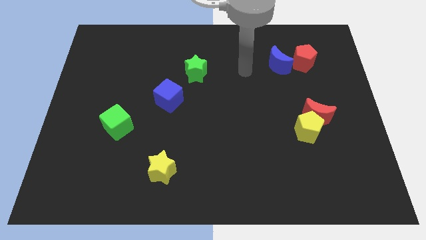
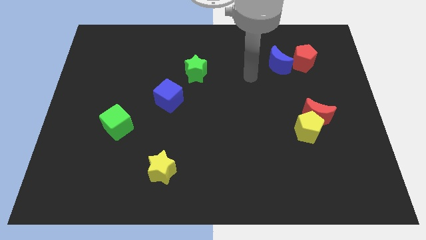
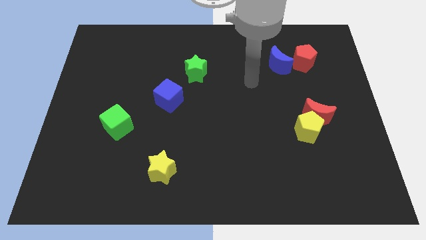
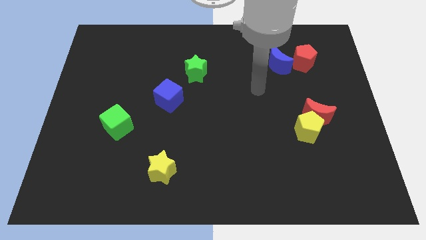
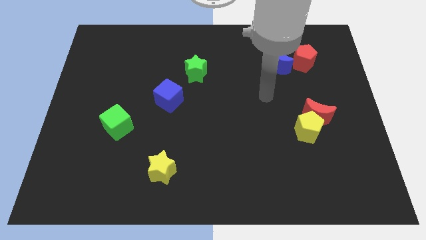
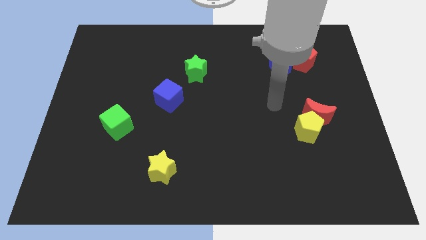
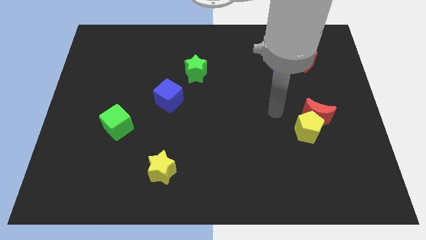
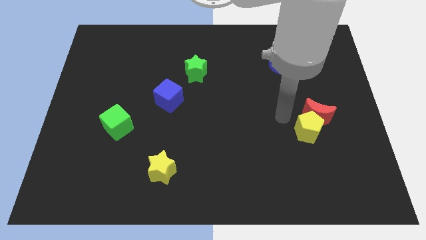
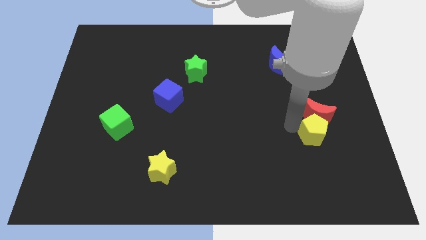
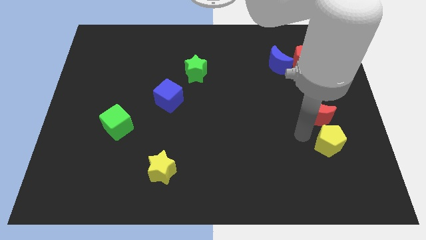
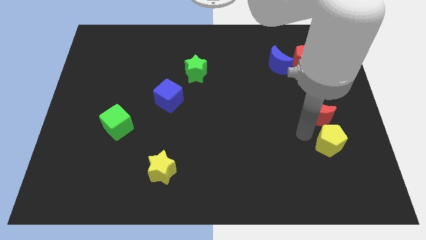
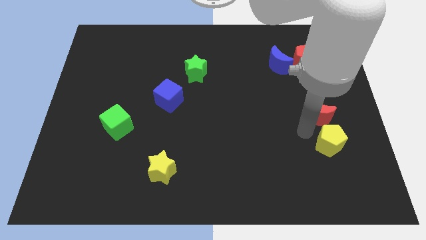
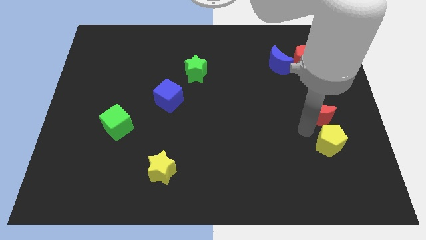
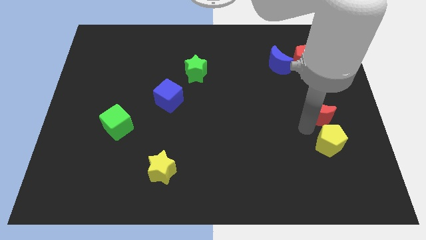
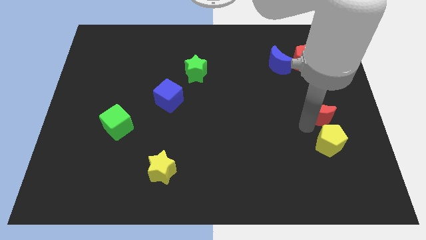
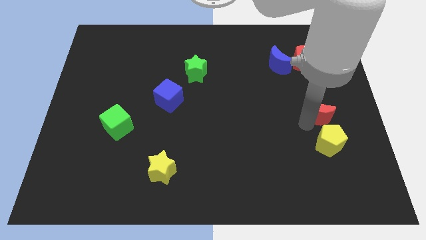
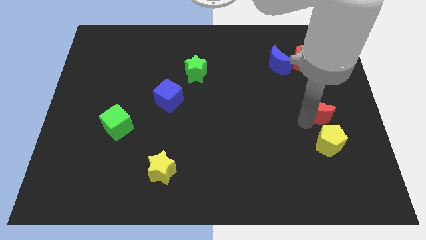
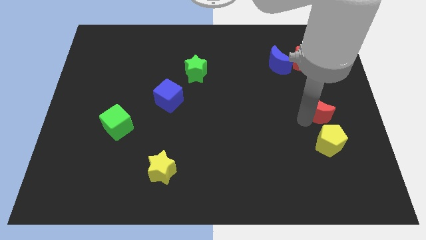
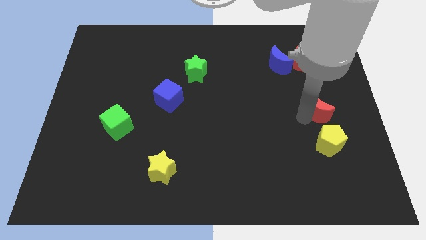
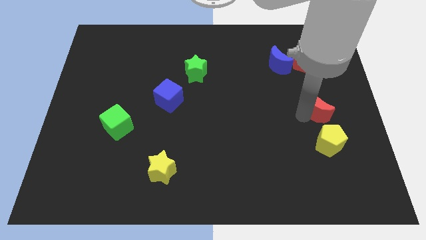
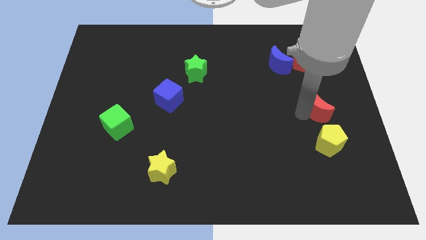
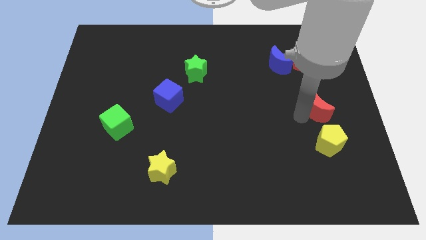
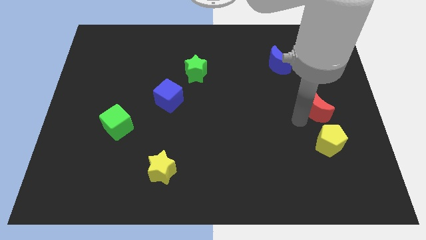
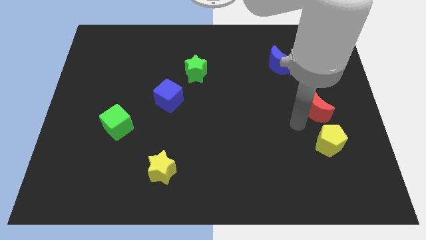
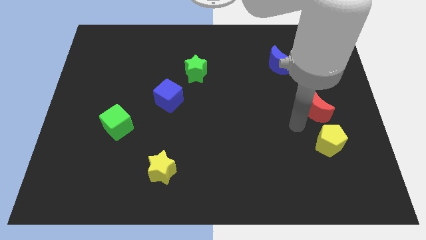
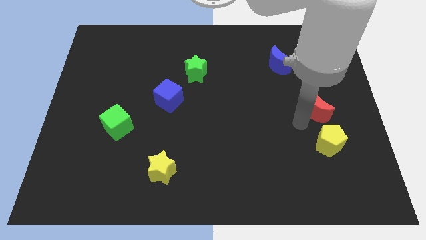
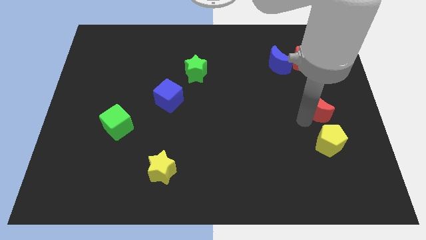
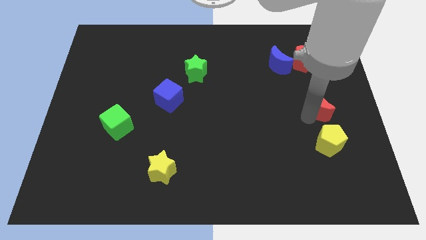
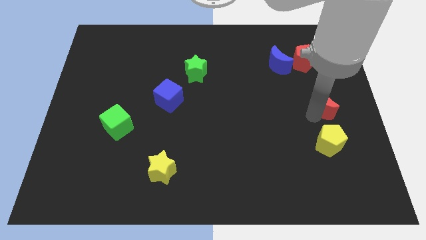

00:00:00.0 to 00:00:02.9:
pull the red moon apart from the yellow pentagon

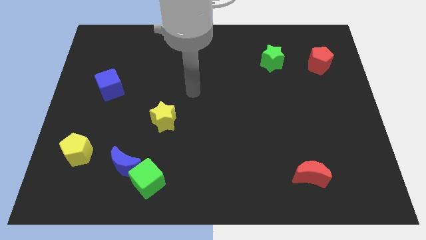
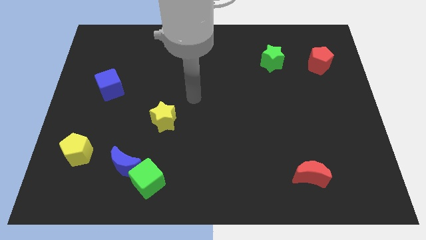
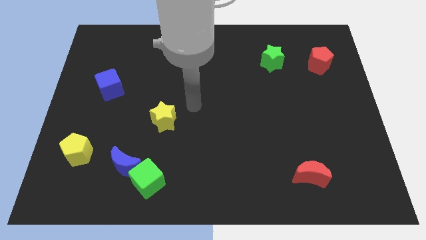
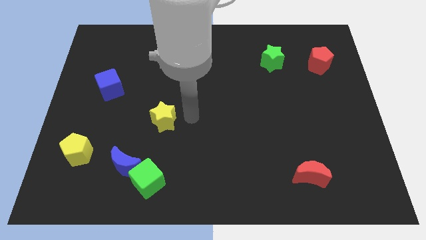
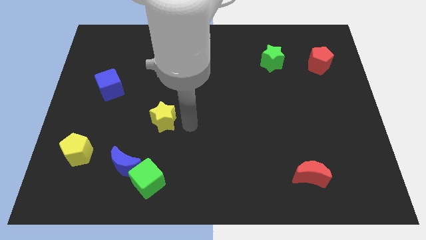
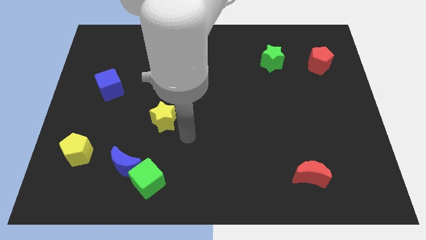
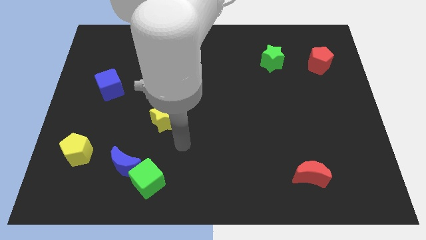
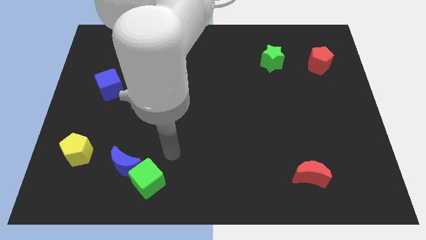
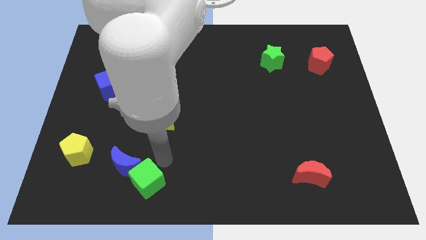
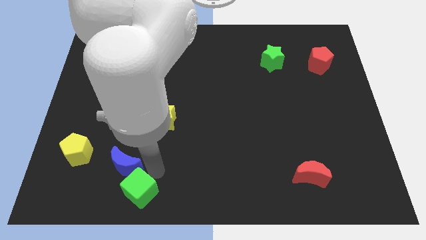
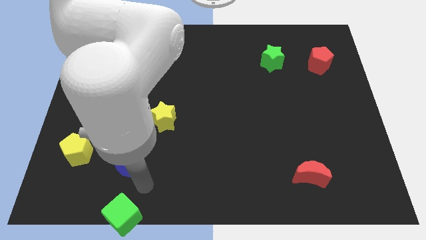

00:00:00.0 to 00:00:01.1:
pull the blue moon apart from the green cube

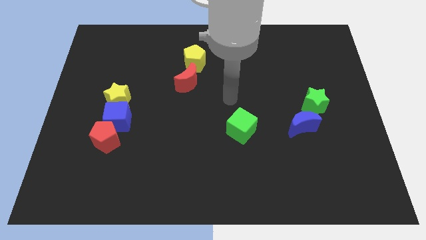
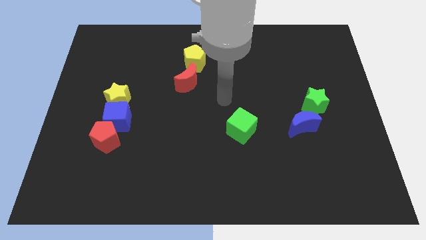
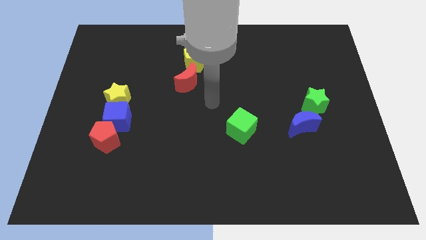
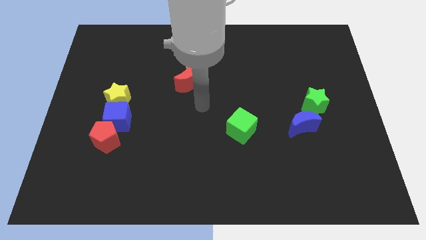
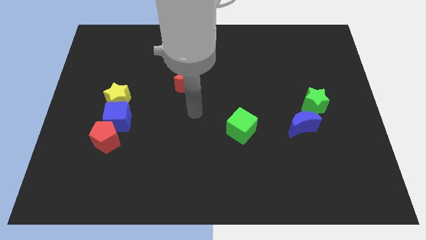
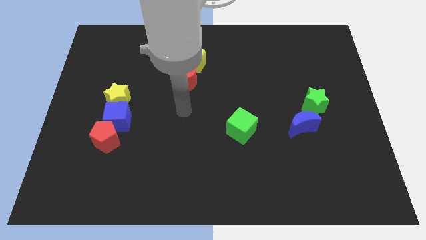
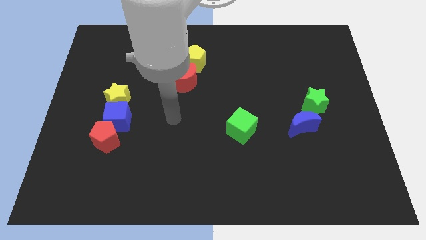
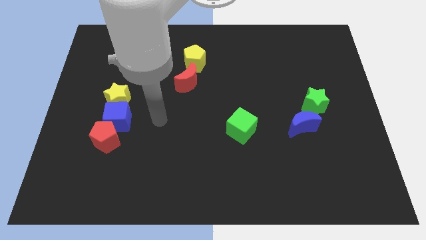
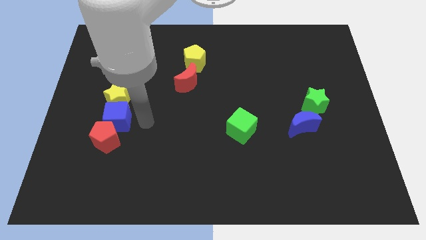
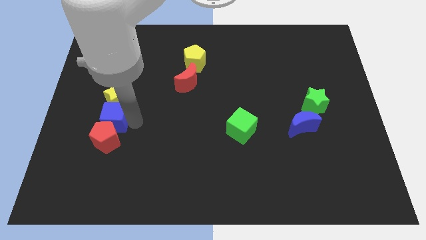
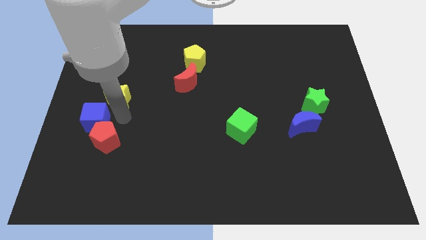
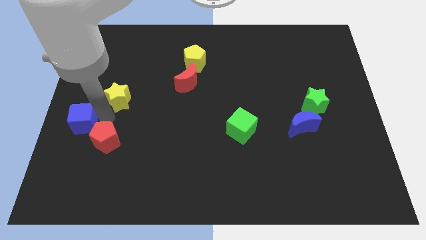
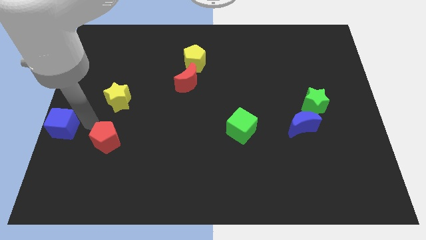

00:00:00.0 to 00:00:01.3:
separate the red pentagon from the blue cube

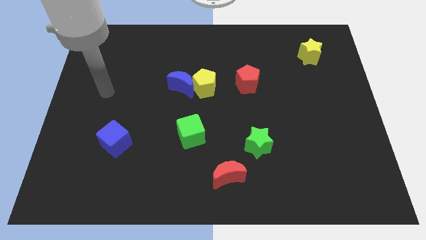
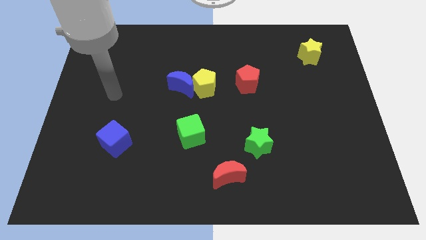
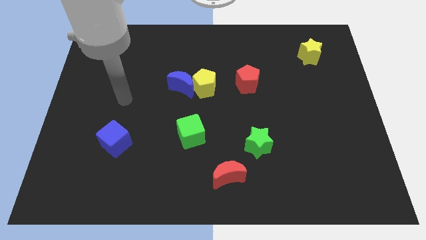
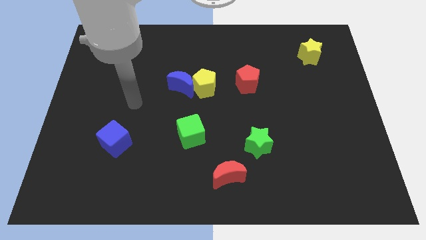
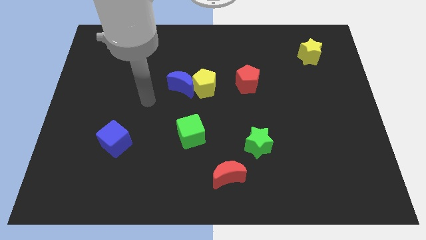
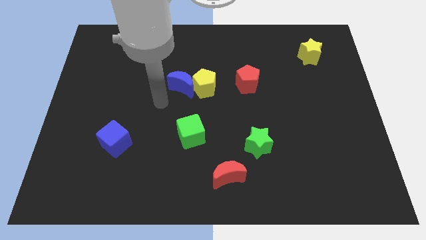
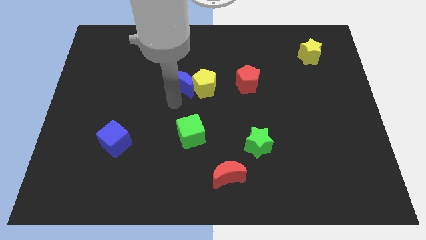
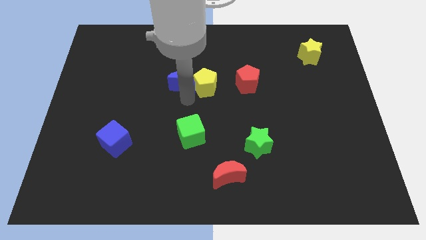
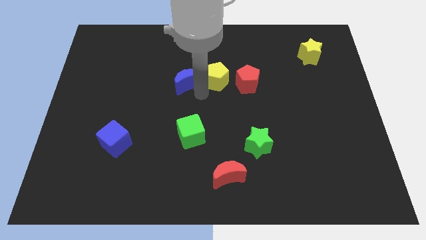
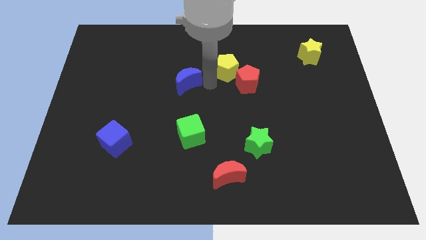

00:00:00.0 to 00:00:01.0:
pull the blue moon apart from the yellow pentagon

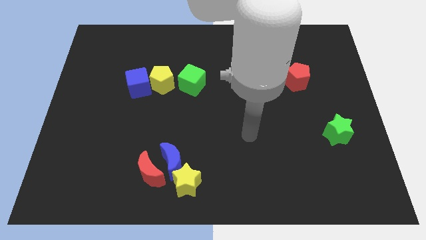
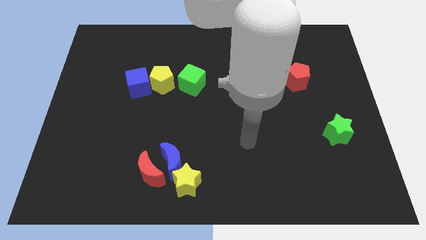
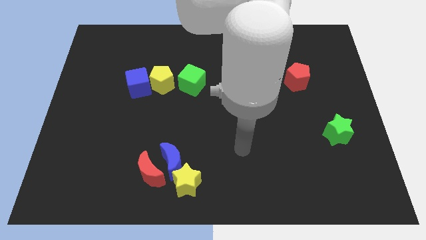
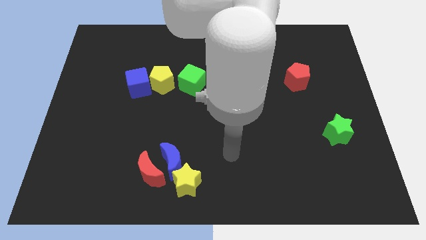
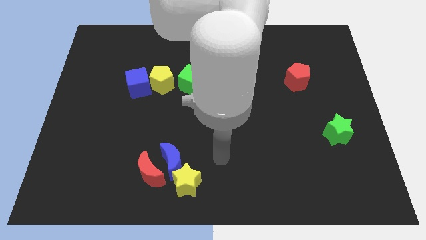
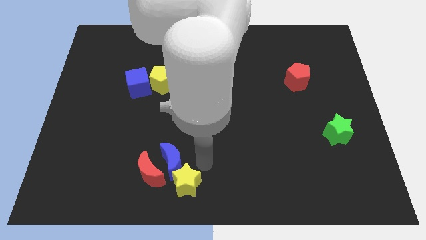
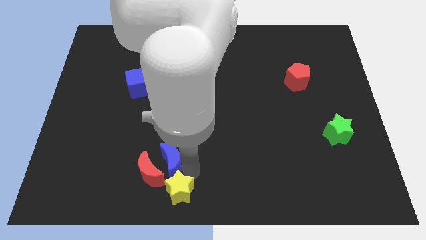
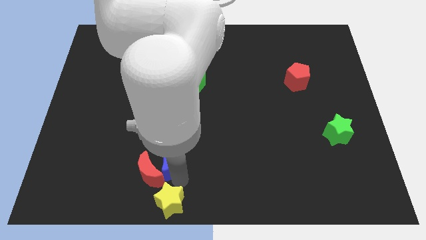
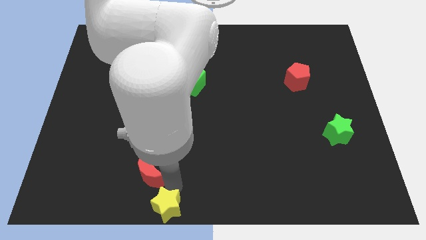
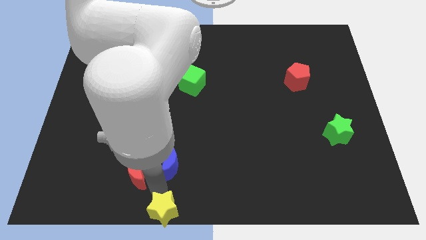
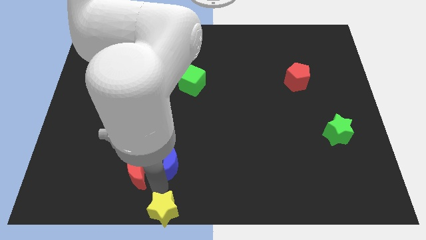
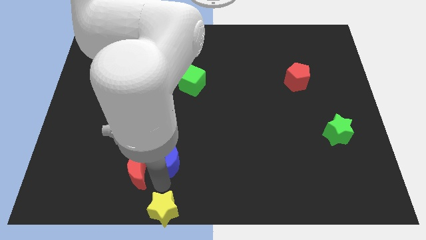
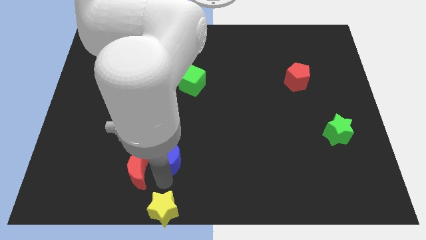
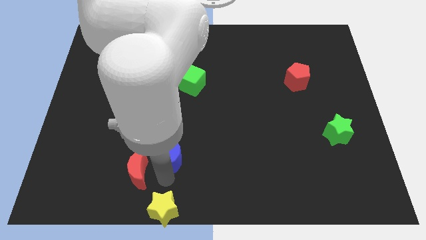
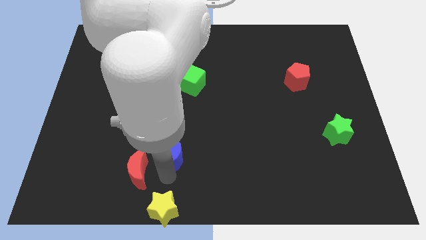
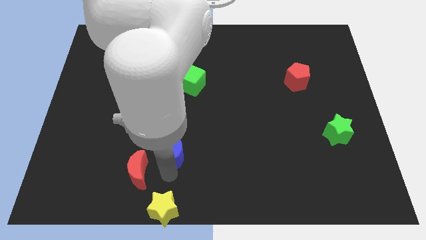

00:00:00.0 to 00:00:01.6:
pull the blue moon apart from the red moon and yellow star

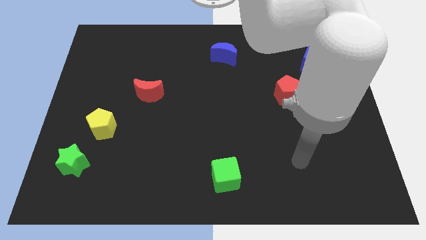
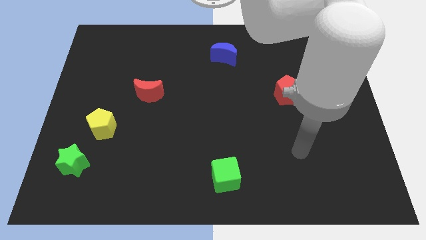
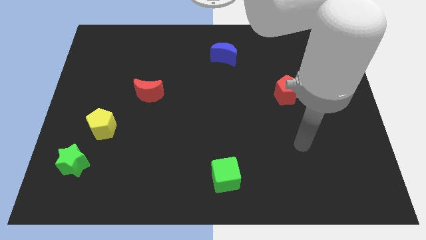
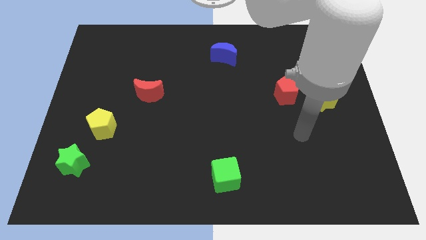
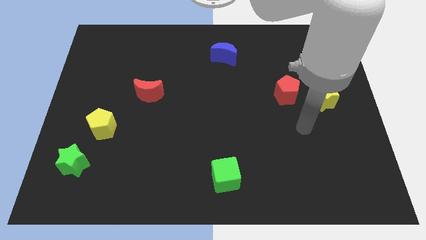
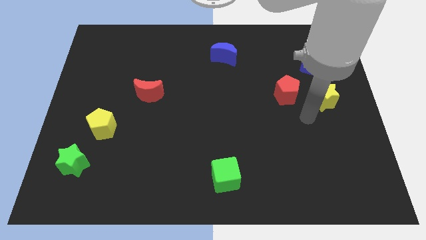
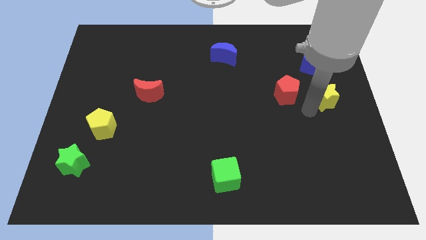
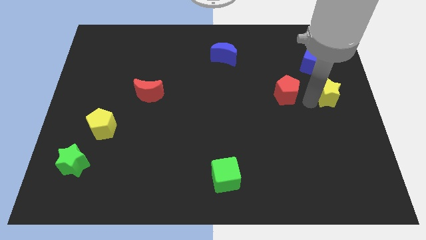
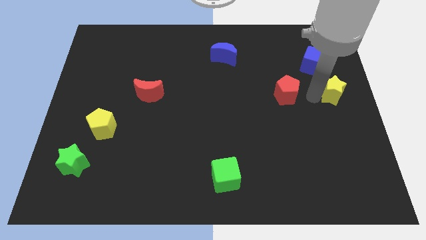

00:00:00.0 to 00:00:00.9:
move the red pentagon away from the yellow star

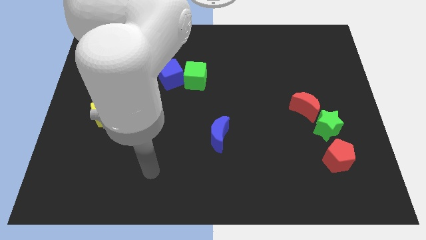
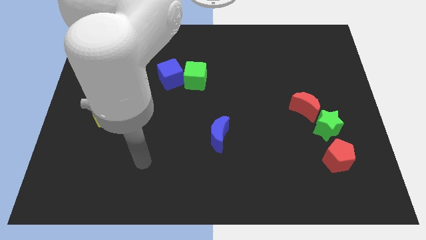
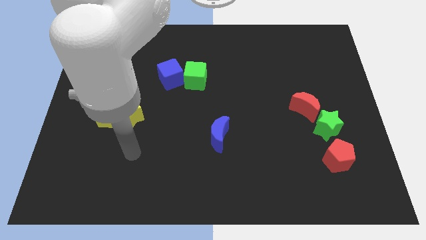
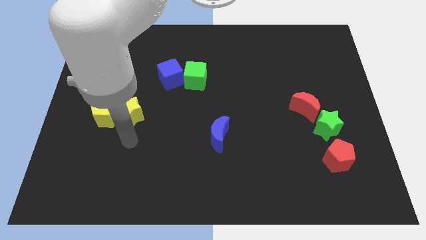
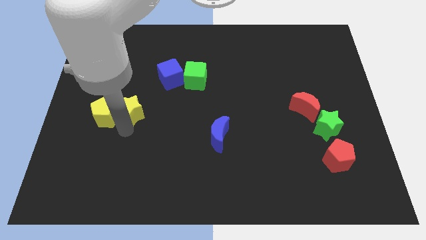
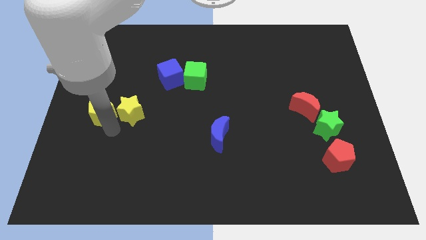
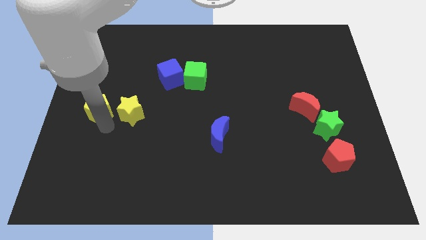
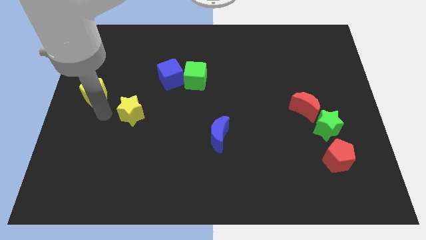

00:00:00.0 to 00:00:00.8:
move the yellow star away from the yellow pentagon
